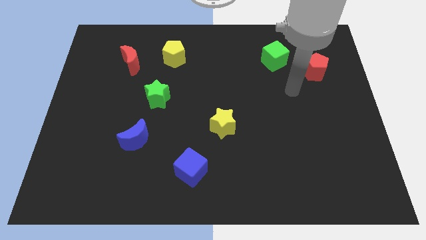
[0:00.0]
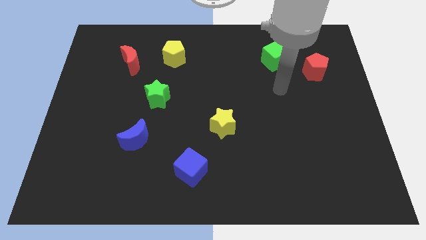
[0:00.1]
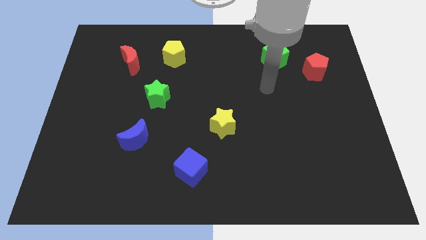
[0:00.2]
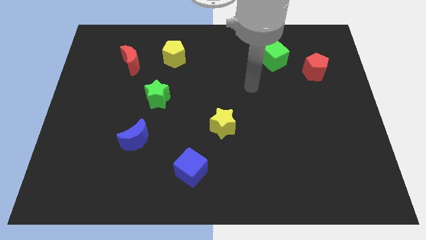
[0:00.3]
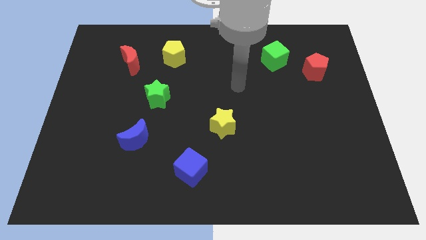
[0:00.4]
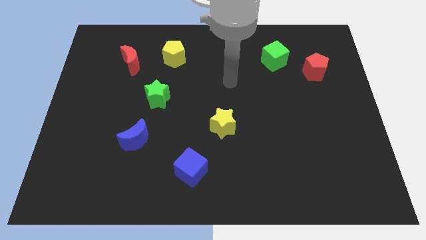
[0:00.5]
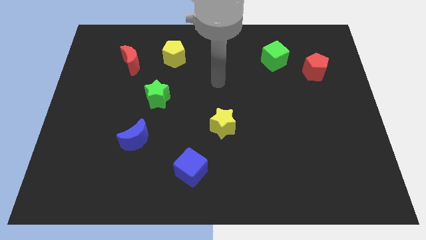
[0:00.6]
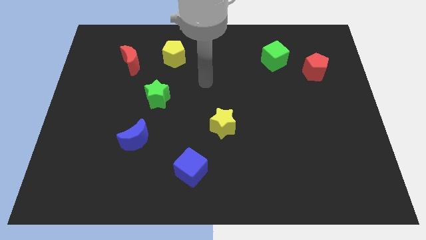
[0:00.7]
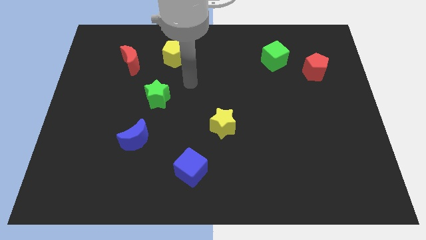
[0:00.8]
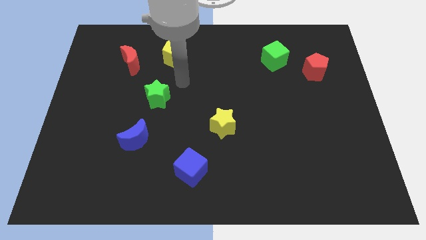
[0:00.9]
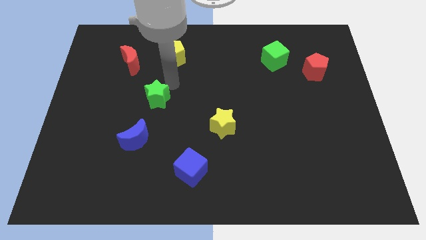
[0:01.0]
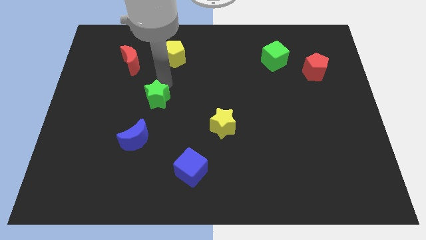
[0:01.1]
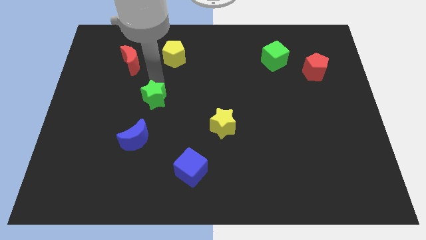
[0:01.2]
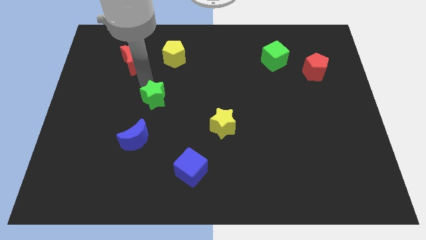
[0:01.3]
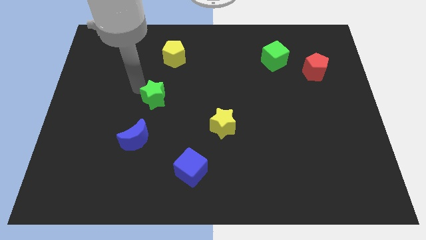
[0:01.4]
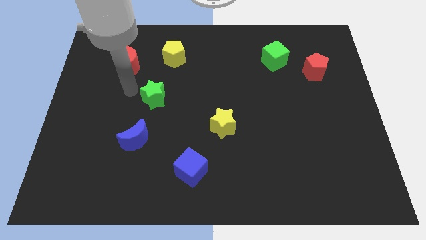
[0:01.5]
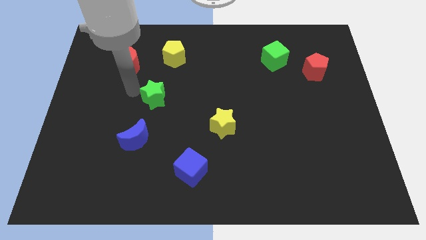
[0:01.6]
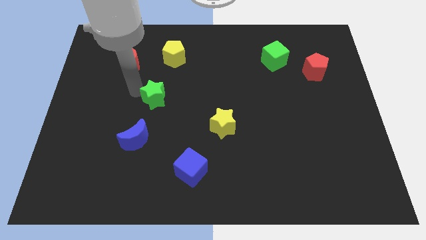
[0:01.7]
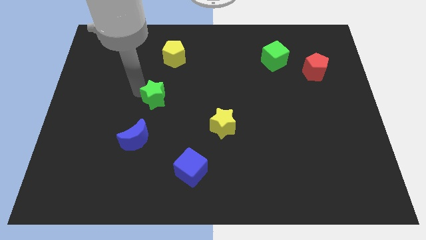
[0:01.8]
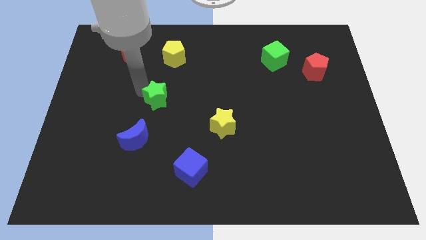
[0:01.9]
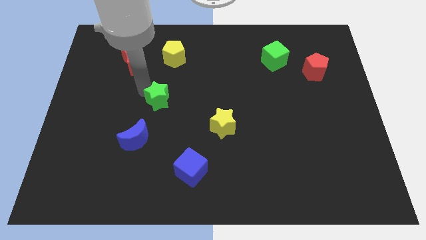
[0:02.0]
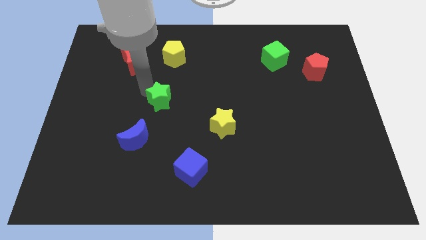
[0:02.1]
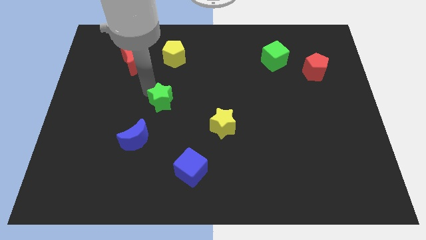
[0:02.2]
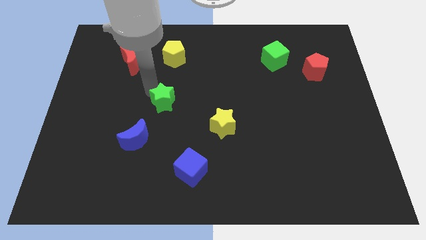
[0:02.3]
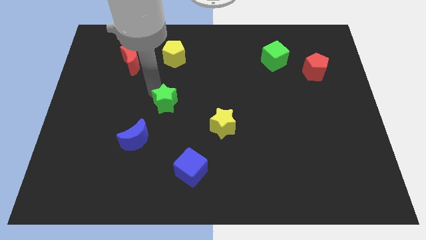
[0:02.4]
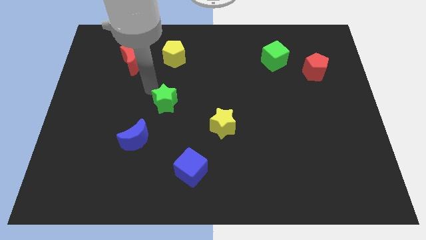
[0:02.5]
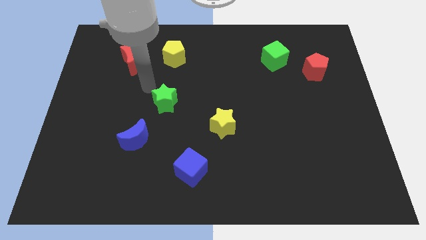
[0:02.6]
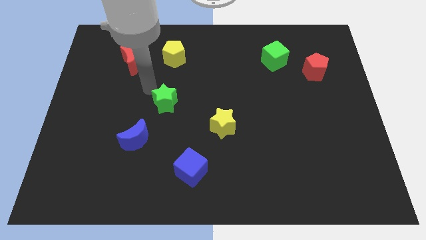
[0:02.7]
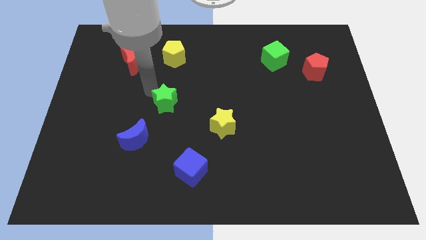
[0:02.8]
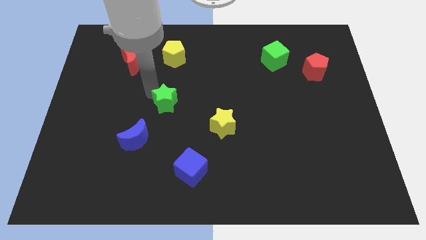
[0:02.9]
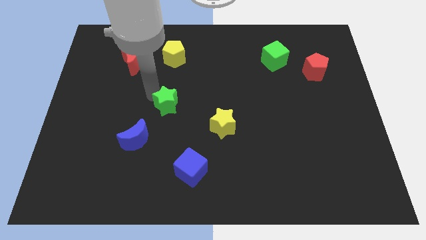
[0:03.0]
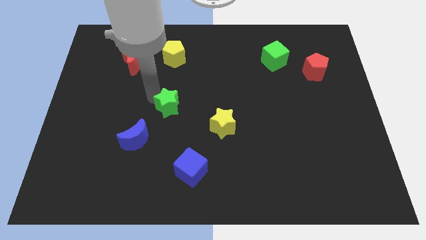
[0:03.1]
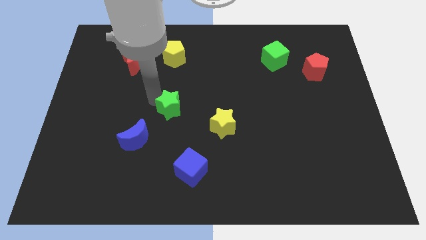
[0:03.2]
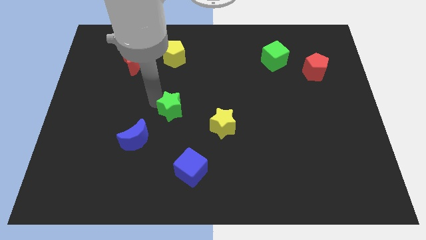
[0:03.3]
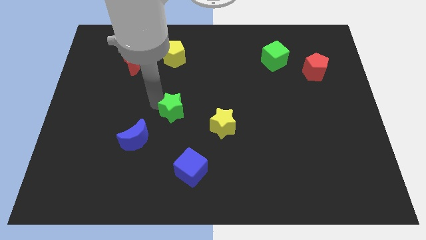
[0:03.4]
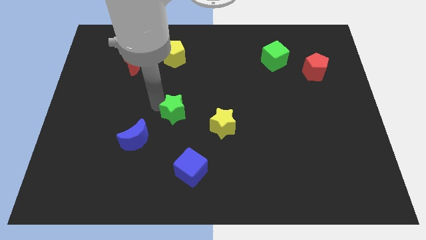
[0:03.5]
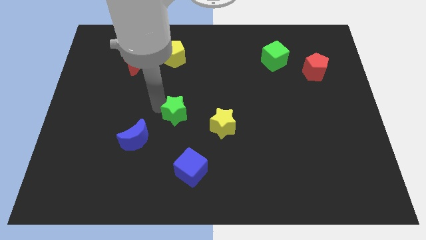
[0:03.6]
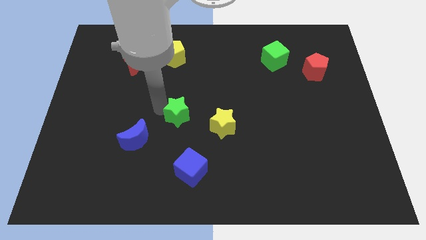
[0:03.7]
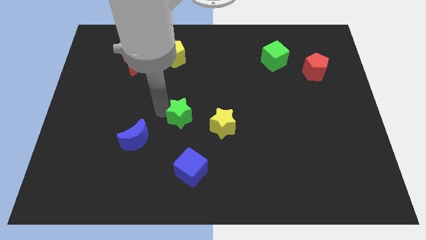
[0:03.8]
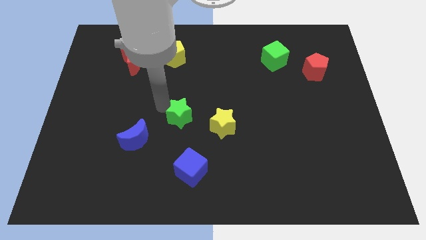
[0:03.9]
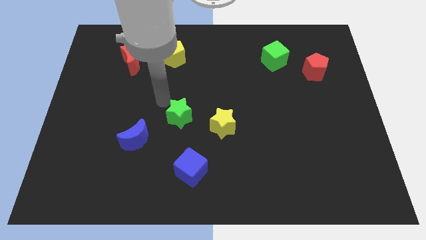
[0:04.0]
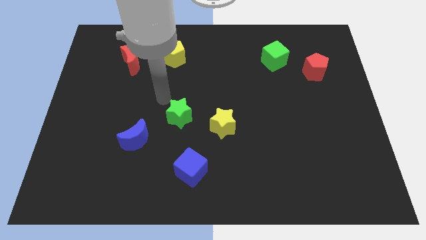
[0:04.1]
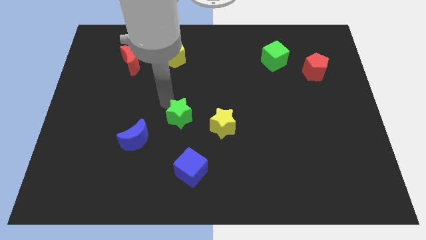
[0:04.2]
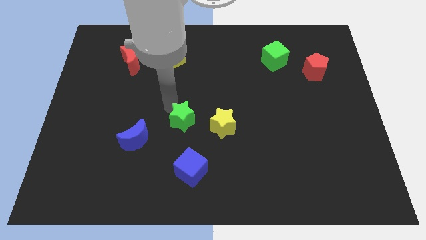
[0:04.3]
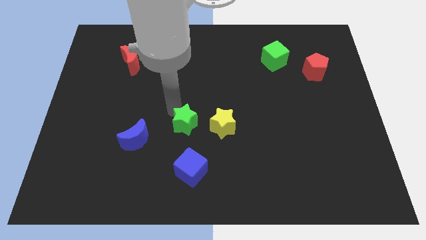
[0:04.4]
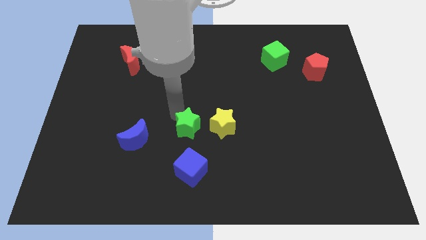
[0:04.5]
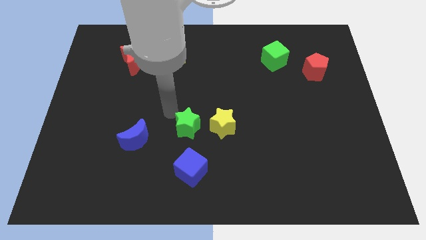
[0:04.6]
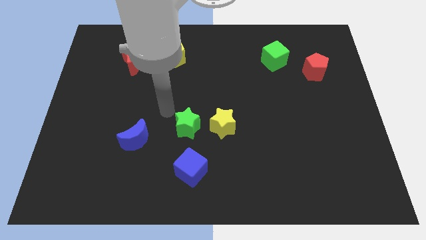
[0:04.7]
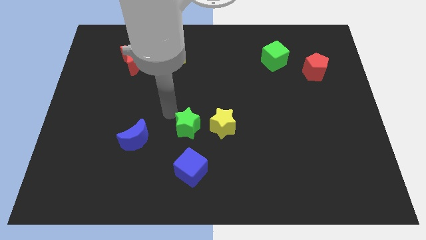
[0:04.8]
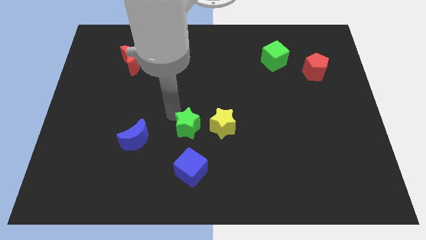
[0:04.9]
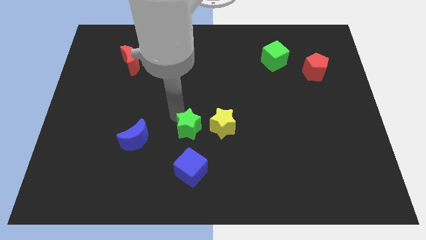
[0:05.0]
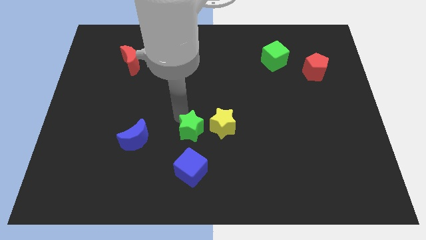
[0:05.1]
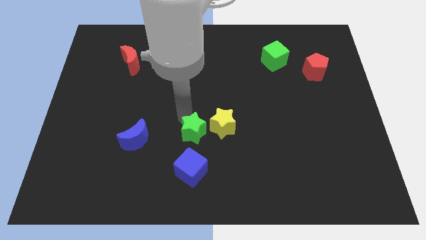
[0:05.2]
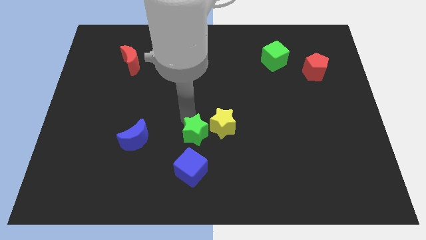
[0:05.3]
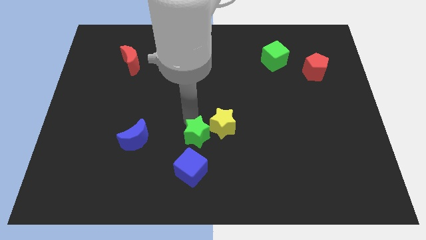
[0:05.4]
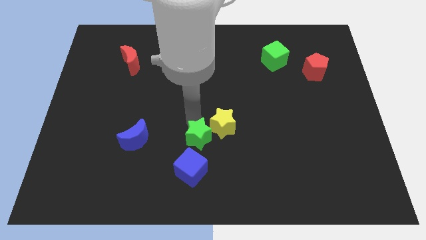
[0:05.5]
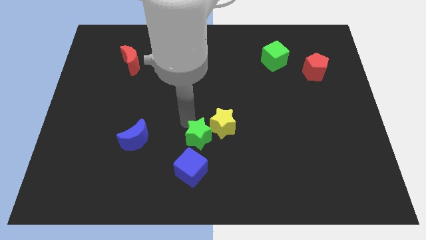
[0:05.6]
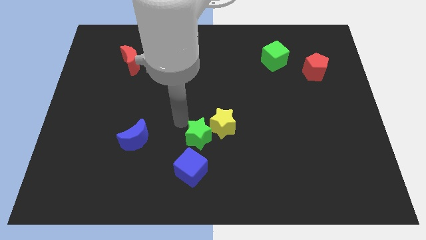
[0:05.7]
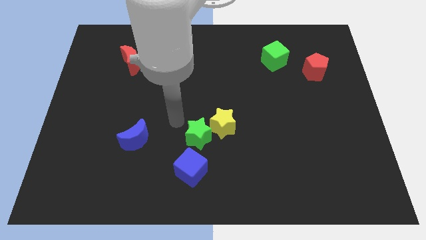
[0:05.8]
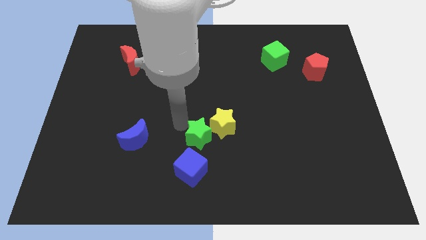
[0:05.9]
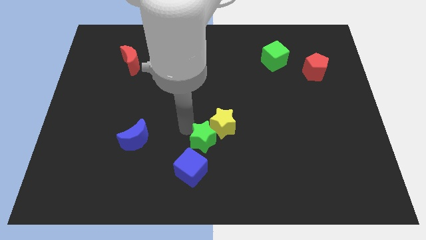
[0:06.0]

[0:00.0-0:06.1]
slide the green star diagonally up and to the right of the blue cube

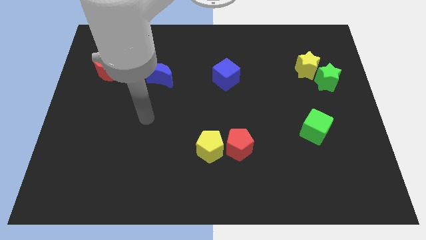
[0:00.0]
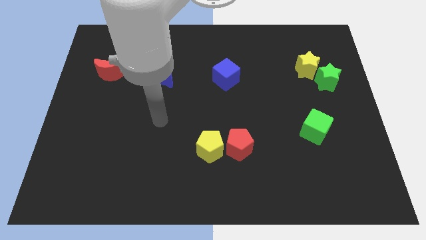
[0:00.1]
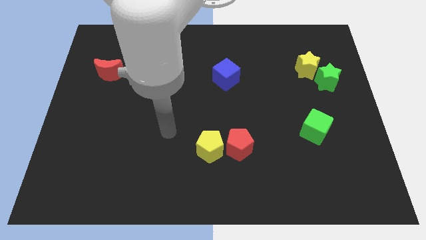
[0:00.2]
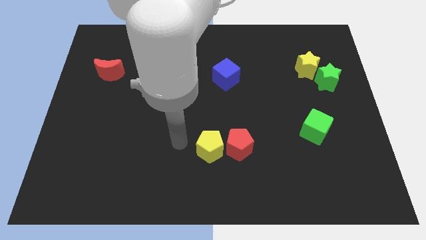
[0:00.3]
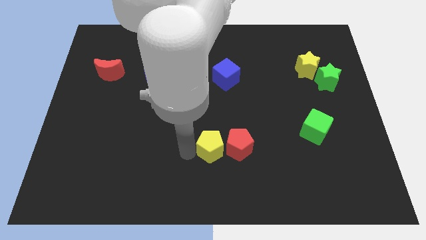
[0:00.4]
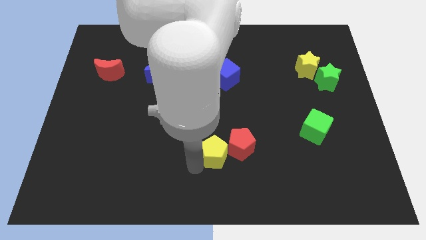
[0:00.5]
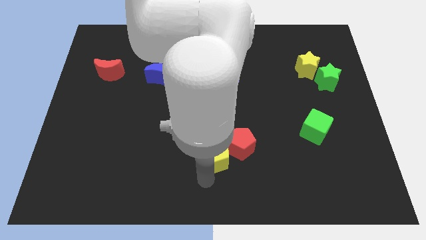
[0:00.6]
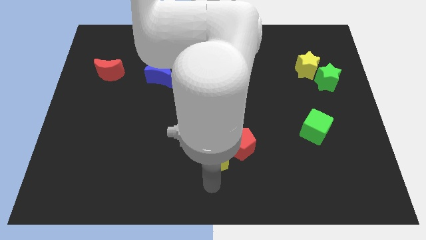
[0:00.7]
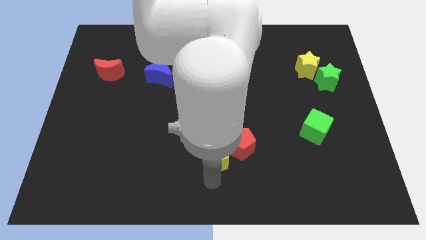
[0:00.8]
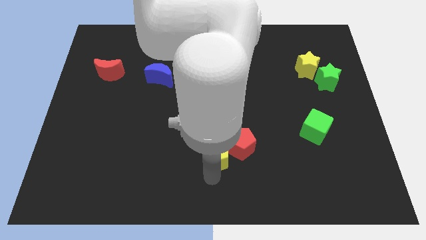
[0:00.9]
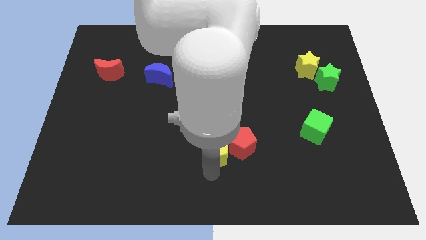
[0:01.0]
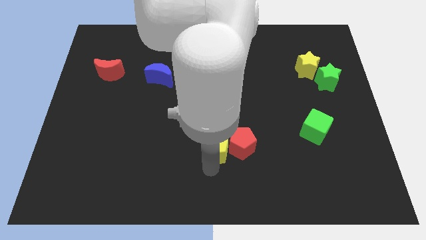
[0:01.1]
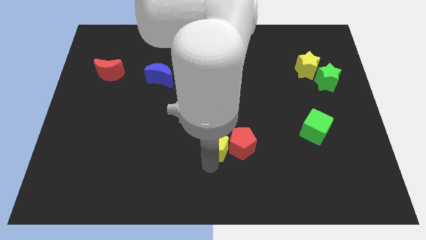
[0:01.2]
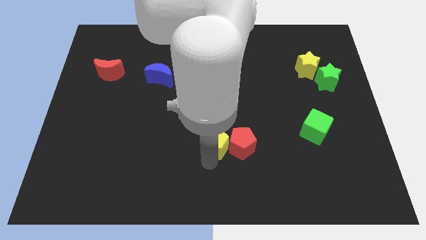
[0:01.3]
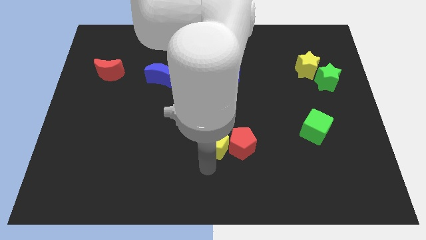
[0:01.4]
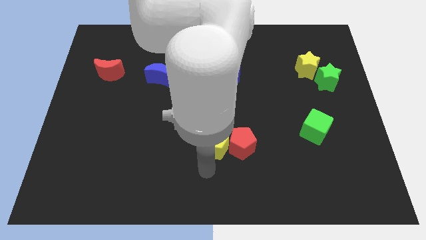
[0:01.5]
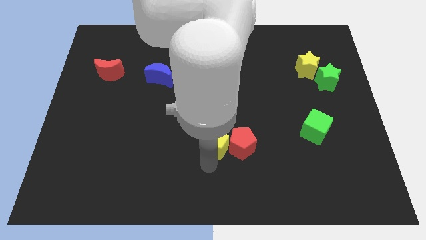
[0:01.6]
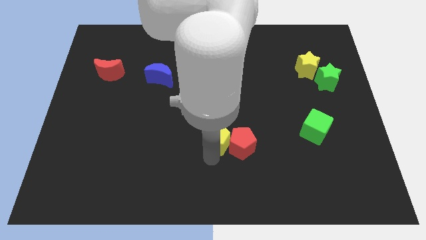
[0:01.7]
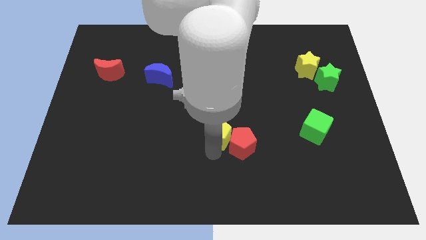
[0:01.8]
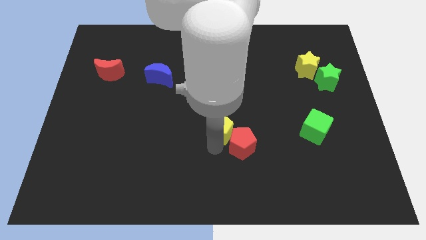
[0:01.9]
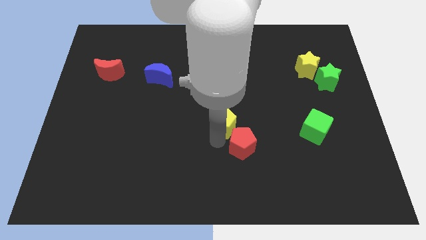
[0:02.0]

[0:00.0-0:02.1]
slide the yellow pentagon below the blue cube
